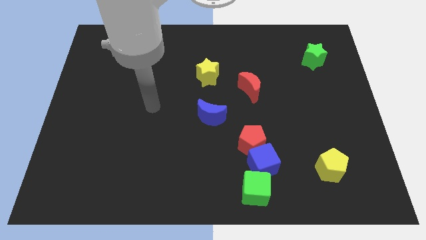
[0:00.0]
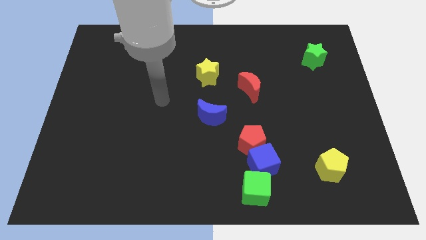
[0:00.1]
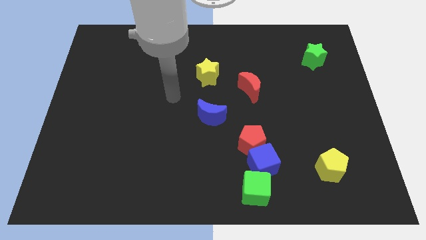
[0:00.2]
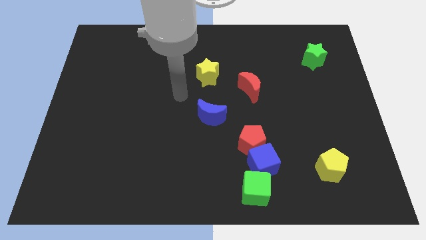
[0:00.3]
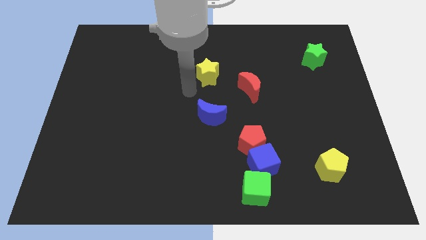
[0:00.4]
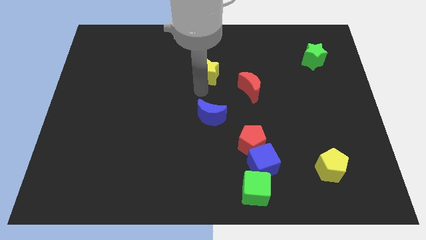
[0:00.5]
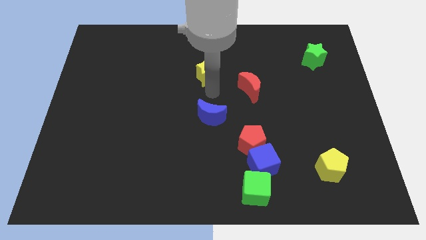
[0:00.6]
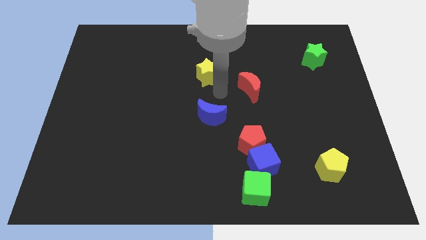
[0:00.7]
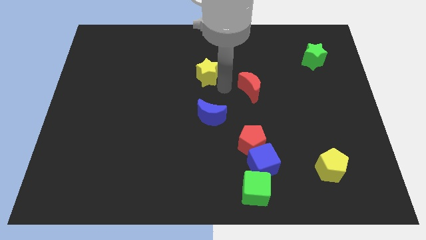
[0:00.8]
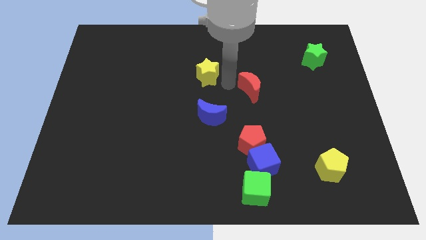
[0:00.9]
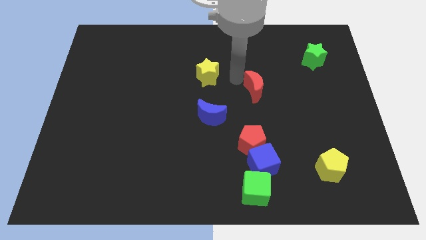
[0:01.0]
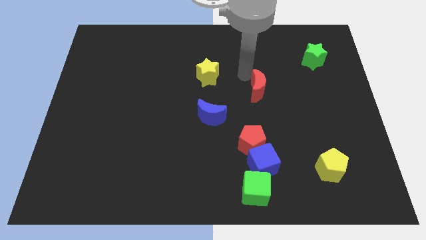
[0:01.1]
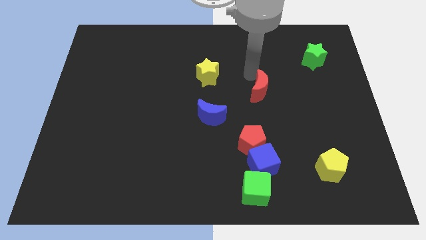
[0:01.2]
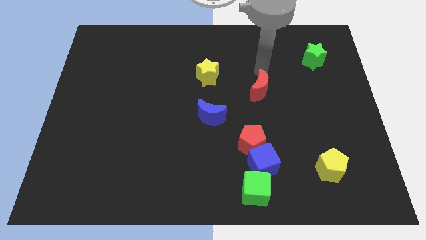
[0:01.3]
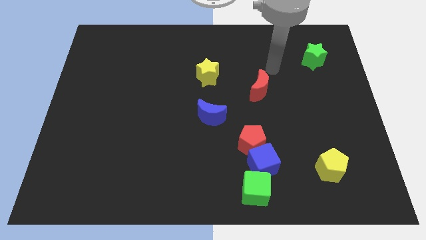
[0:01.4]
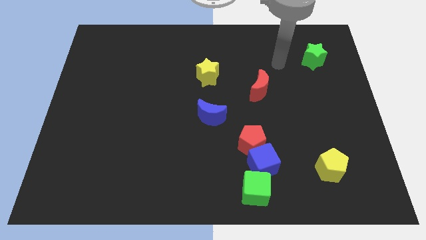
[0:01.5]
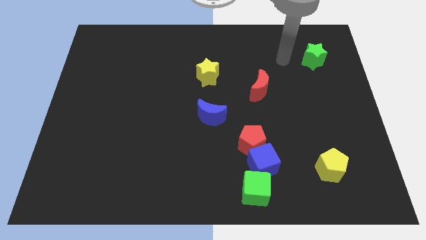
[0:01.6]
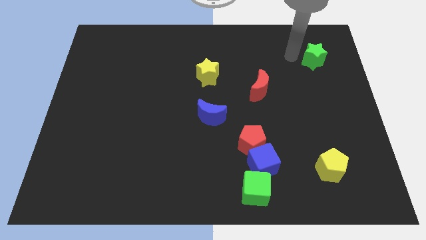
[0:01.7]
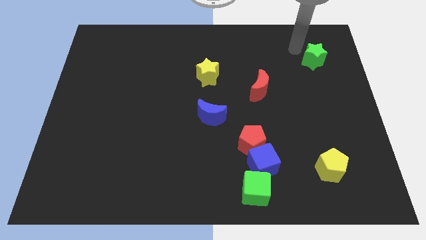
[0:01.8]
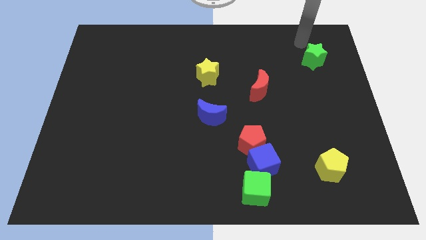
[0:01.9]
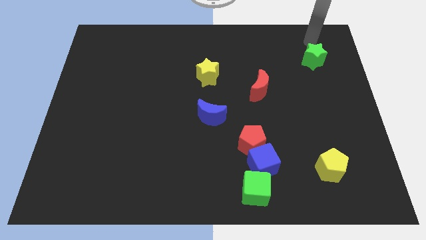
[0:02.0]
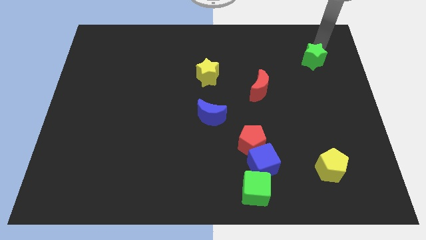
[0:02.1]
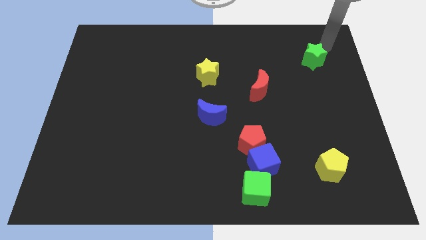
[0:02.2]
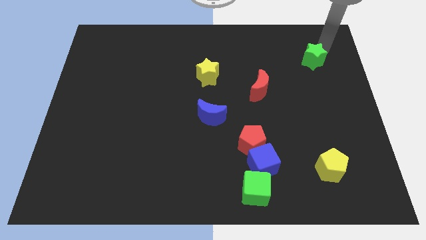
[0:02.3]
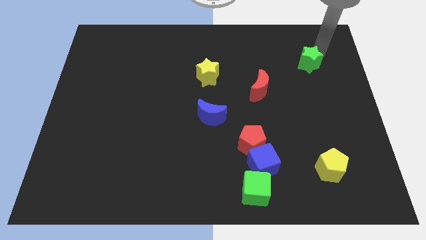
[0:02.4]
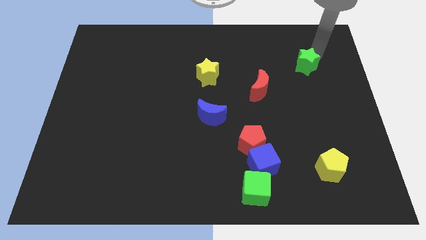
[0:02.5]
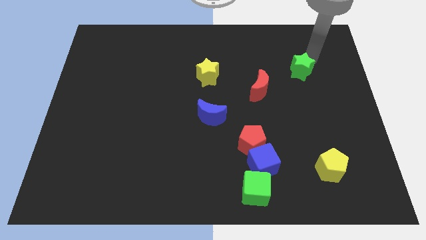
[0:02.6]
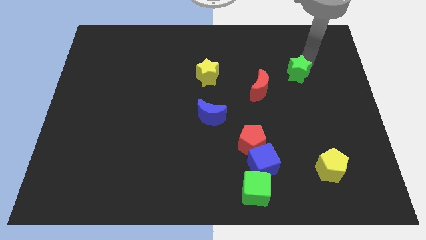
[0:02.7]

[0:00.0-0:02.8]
move the green star downwards and left diagonally a little

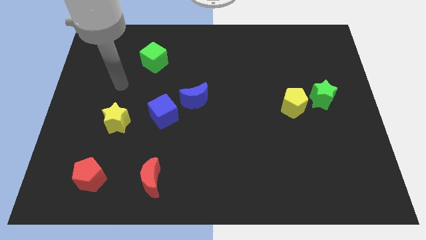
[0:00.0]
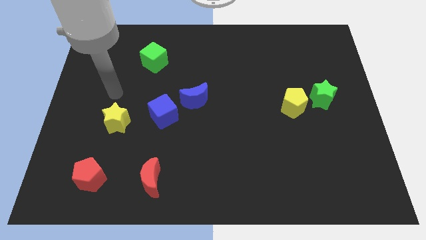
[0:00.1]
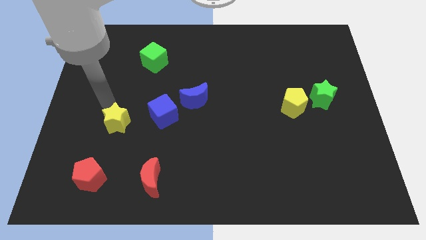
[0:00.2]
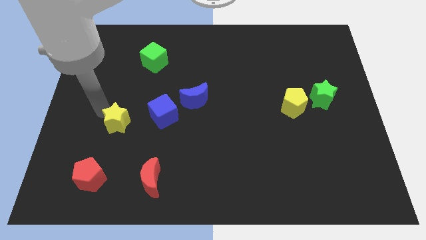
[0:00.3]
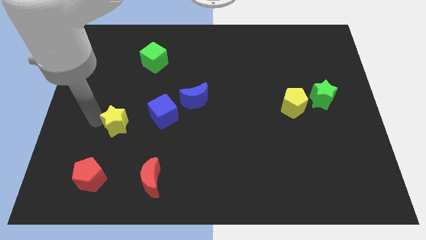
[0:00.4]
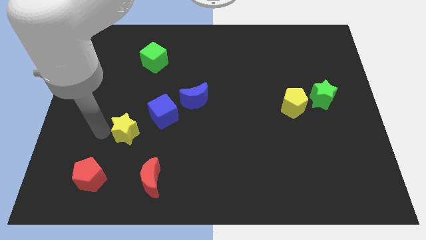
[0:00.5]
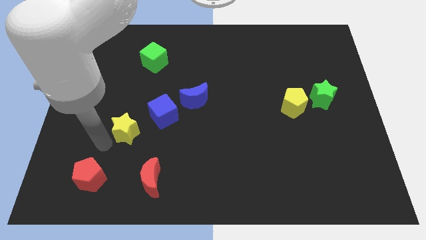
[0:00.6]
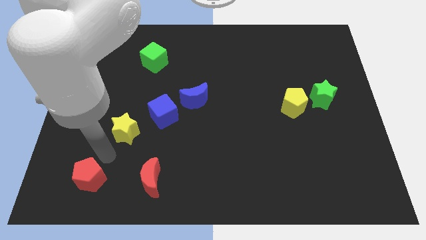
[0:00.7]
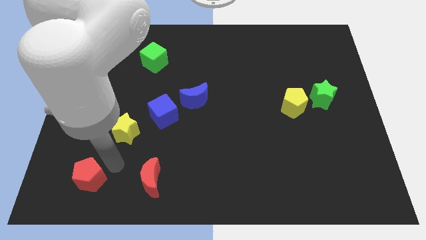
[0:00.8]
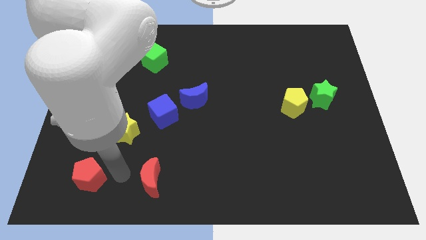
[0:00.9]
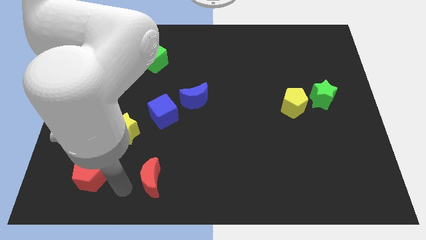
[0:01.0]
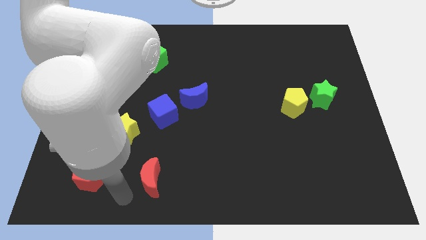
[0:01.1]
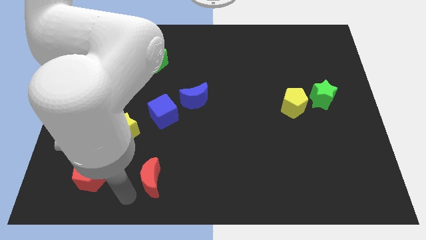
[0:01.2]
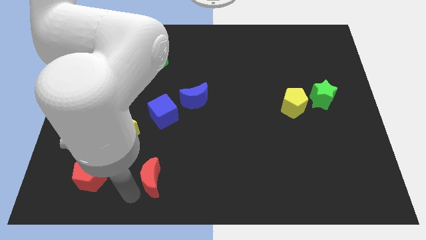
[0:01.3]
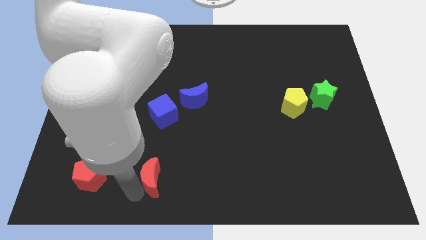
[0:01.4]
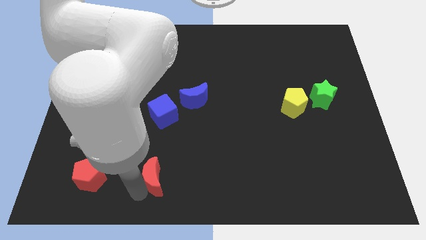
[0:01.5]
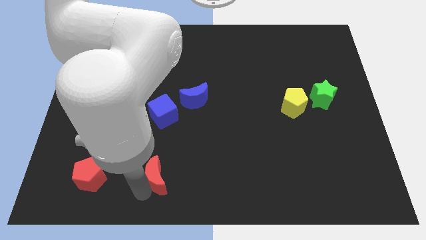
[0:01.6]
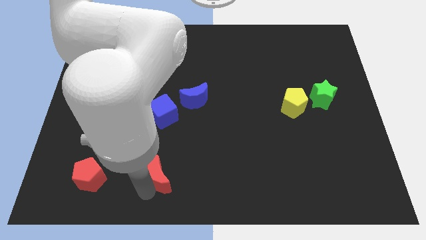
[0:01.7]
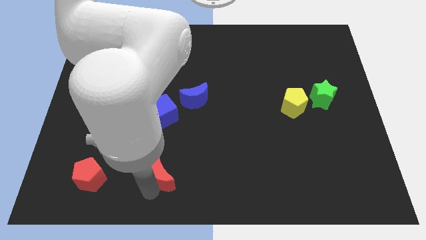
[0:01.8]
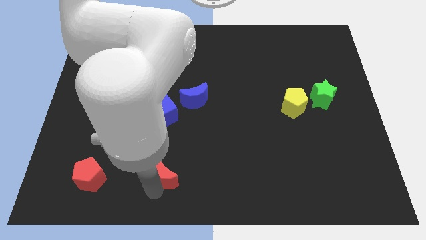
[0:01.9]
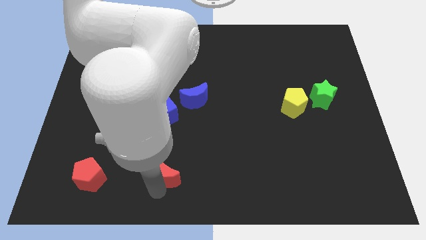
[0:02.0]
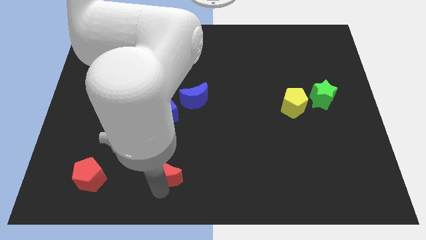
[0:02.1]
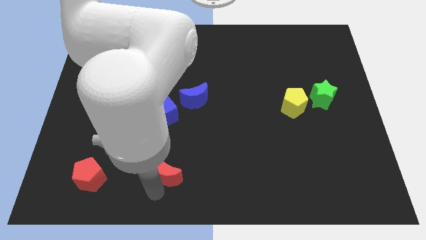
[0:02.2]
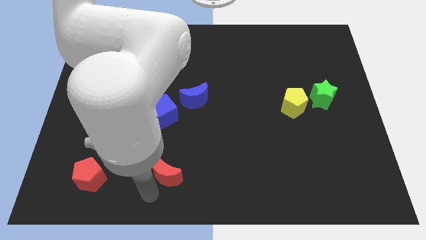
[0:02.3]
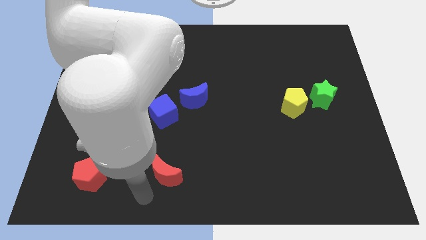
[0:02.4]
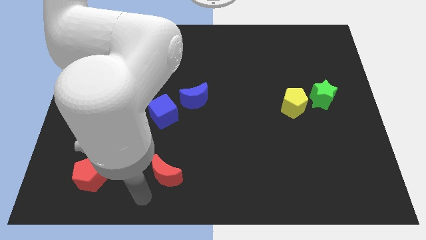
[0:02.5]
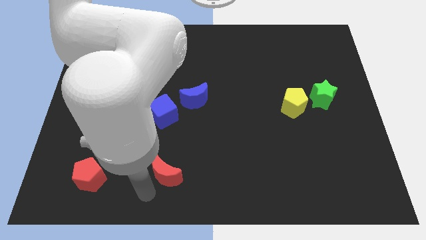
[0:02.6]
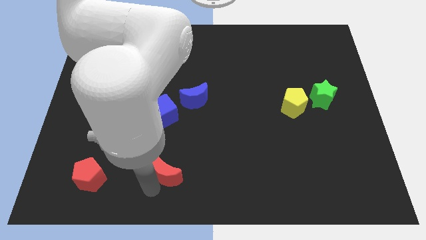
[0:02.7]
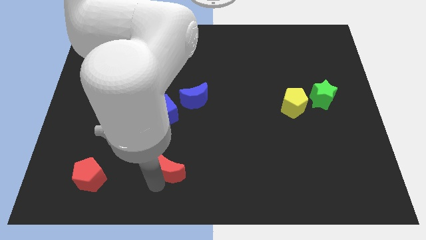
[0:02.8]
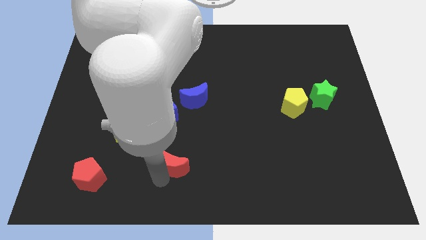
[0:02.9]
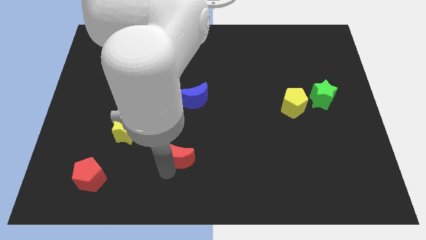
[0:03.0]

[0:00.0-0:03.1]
slightly slide the red moon diagonally up and to the right

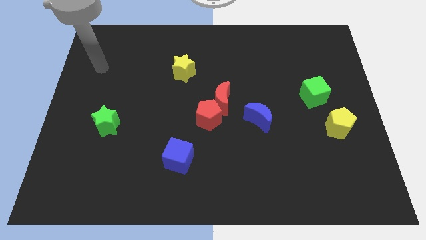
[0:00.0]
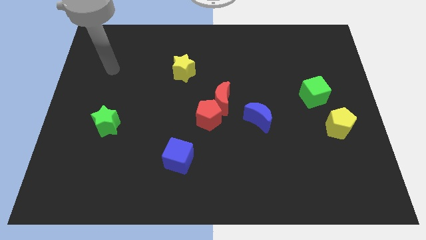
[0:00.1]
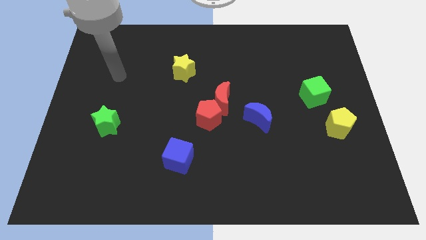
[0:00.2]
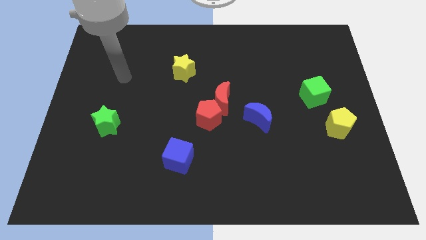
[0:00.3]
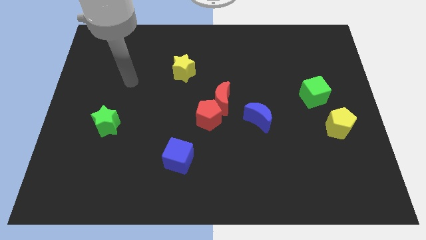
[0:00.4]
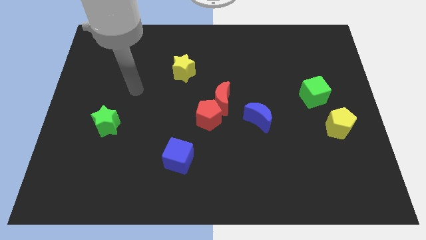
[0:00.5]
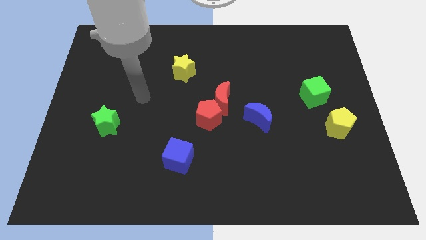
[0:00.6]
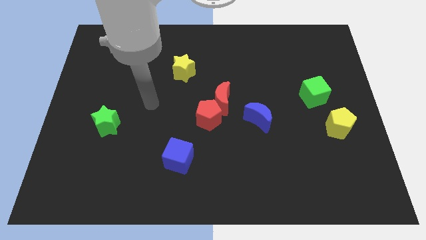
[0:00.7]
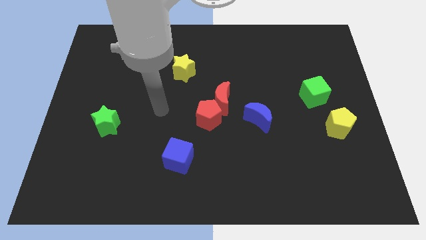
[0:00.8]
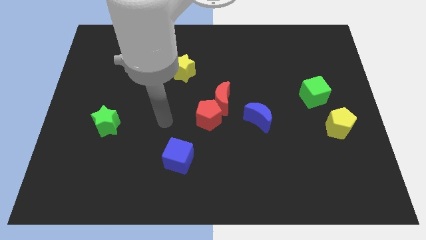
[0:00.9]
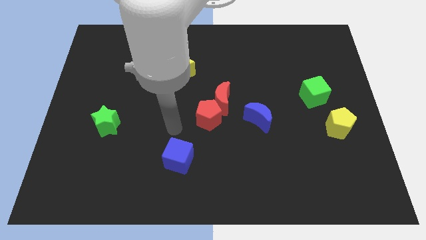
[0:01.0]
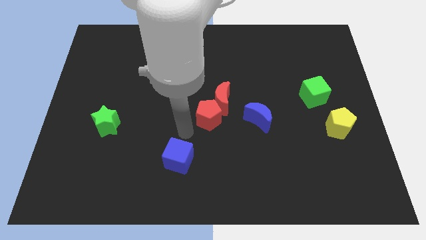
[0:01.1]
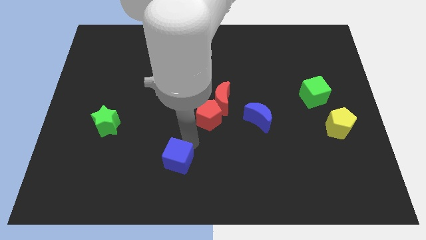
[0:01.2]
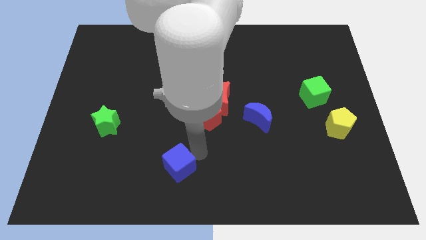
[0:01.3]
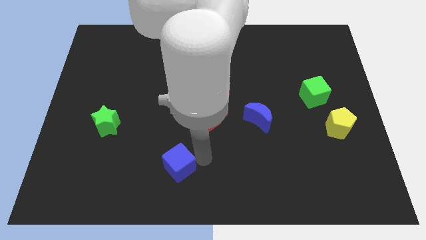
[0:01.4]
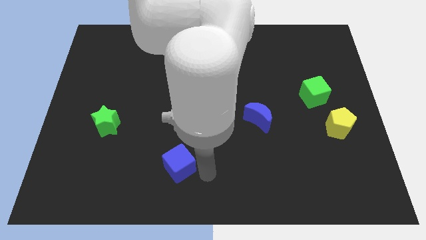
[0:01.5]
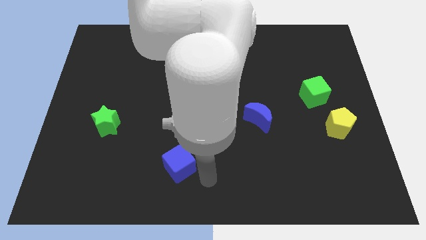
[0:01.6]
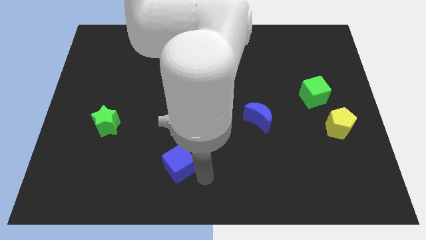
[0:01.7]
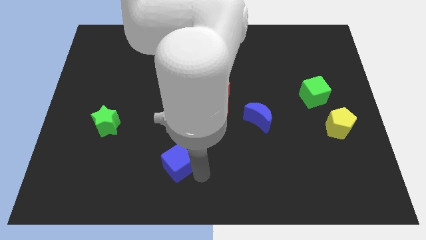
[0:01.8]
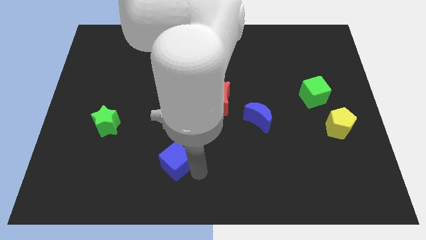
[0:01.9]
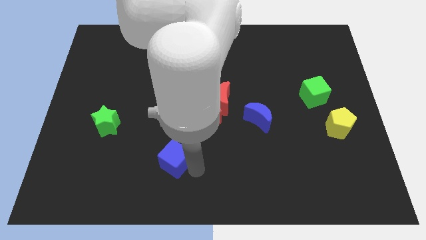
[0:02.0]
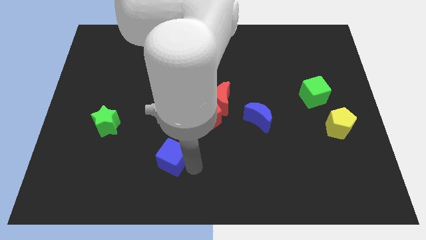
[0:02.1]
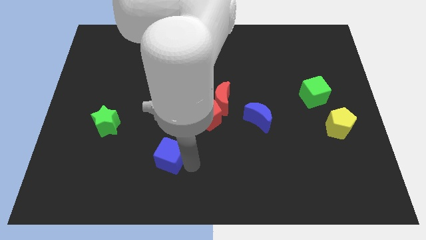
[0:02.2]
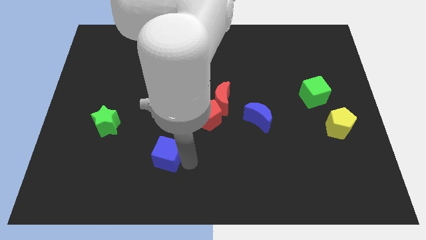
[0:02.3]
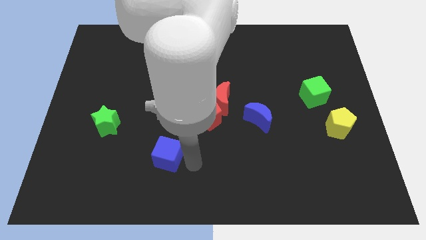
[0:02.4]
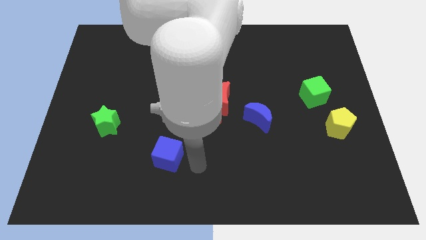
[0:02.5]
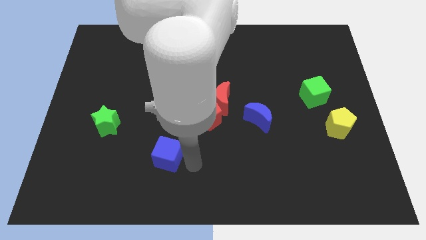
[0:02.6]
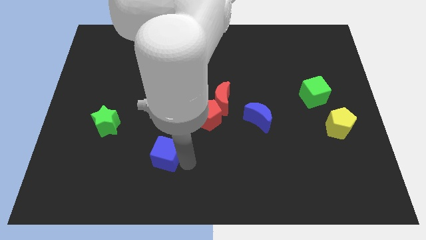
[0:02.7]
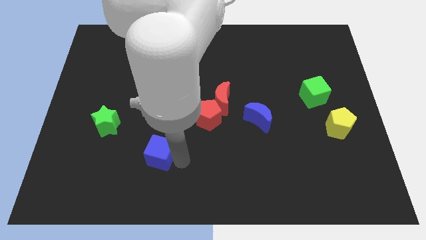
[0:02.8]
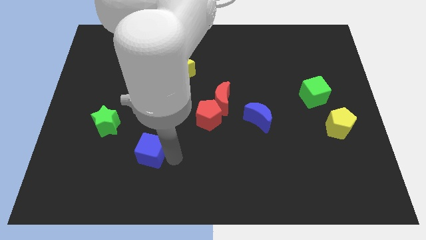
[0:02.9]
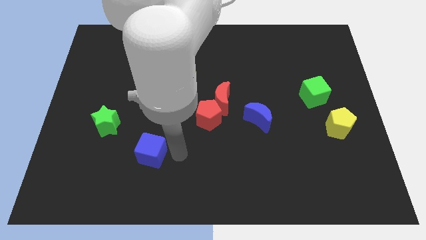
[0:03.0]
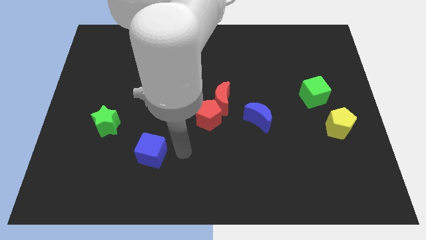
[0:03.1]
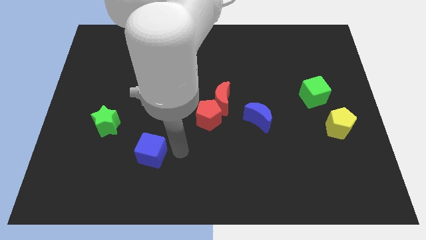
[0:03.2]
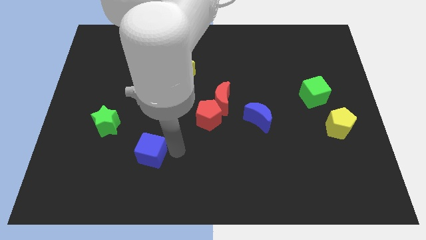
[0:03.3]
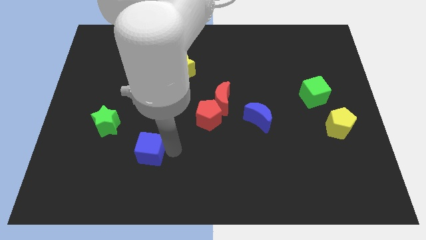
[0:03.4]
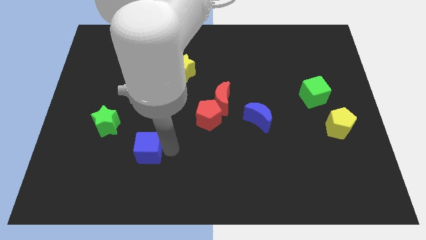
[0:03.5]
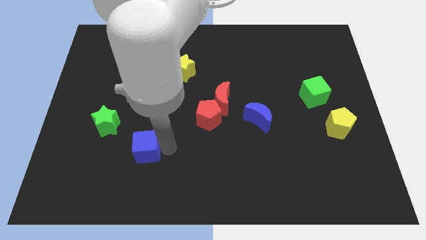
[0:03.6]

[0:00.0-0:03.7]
push the blue cube somewhat left
